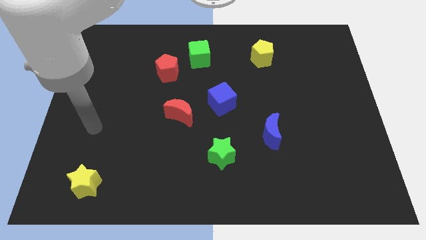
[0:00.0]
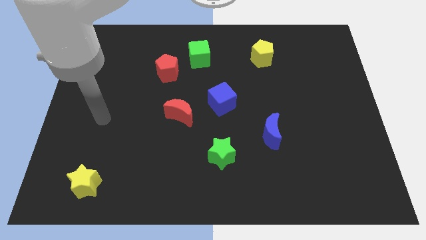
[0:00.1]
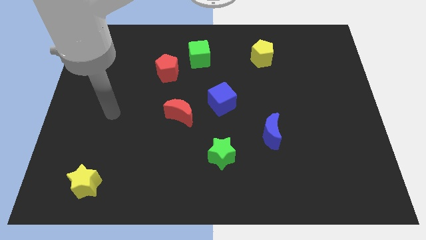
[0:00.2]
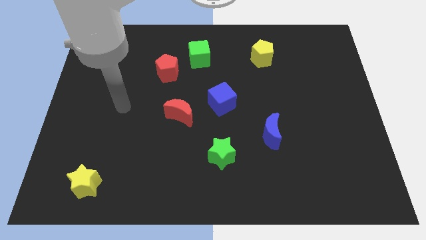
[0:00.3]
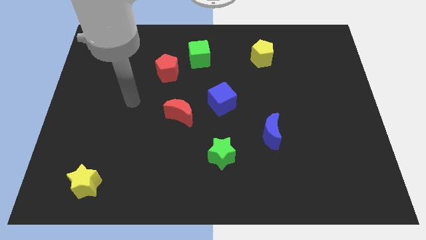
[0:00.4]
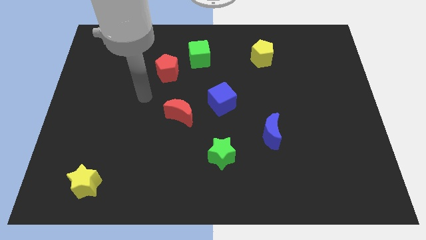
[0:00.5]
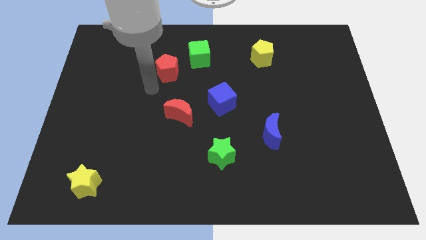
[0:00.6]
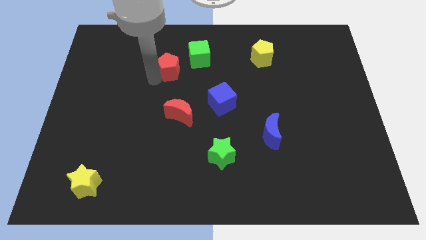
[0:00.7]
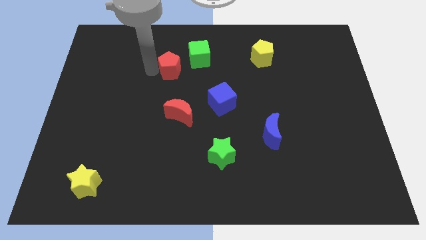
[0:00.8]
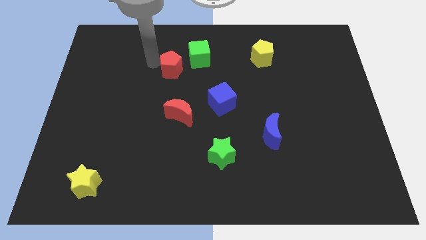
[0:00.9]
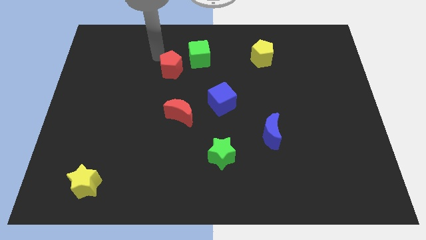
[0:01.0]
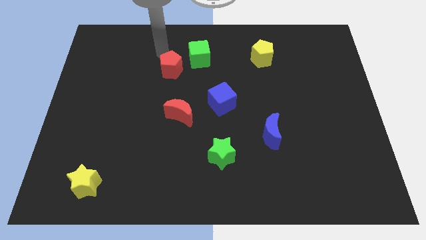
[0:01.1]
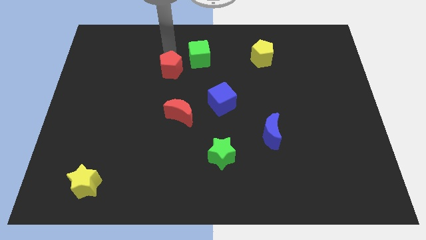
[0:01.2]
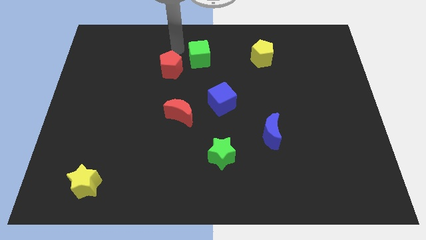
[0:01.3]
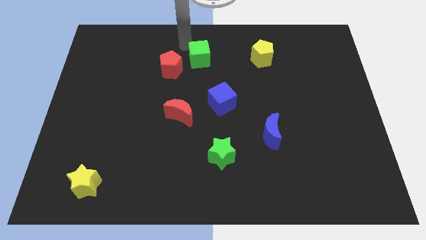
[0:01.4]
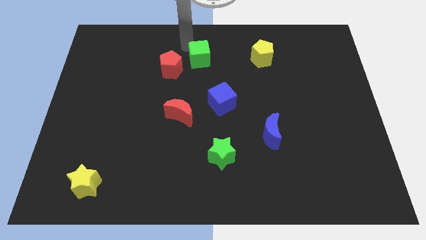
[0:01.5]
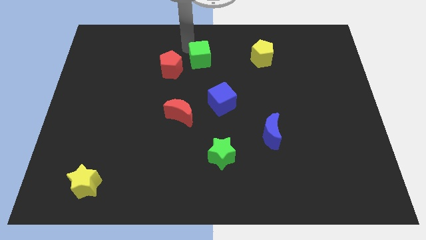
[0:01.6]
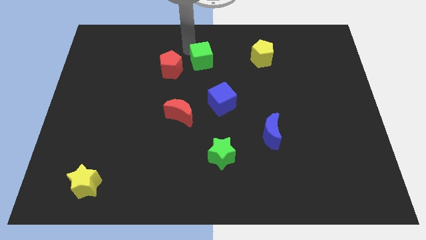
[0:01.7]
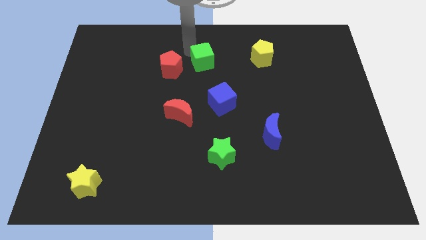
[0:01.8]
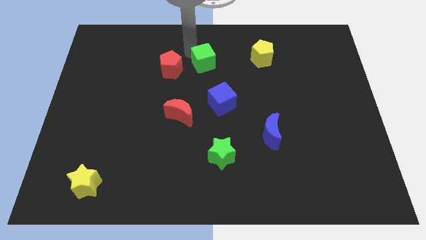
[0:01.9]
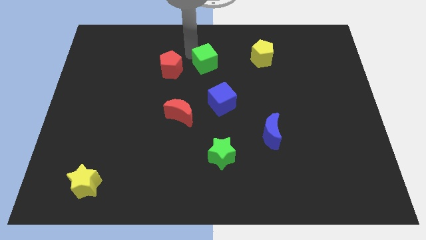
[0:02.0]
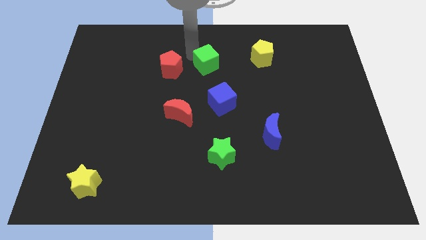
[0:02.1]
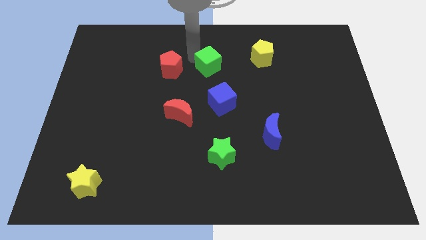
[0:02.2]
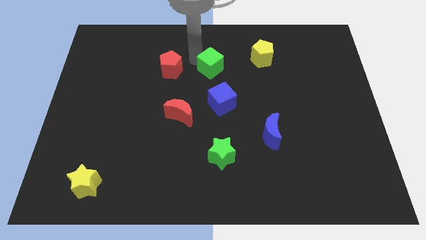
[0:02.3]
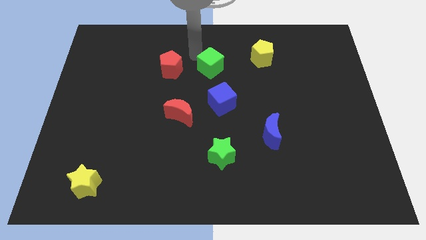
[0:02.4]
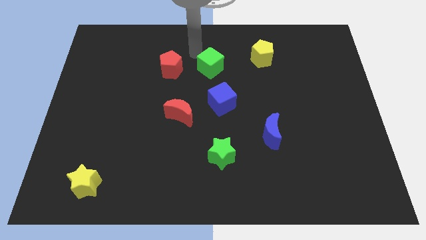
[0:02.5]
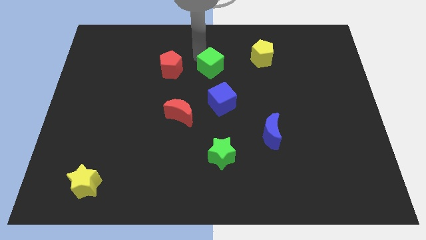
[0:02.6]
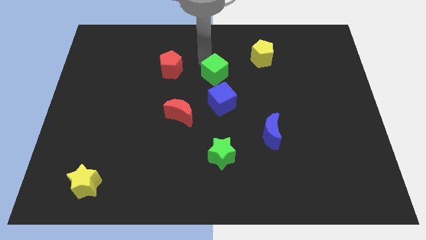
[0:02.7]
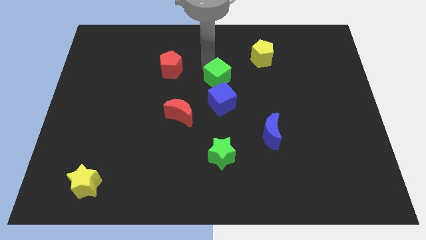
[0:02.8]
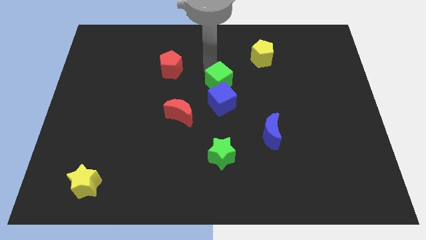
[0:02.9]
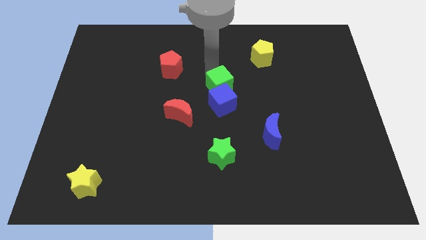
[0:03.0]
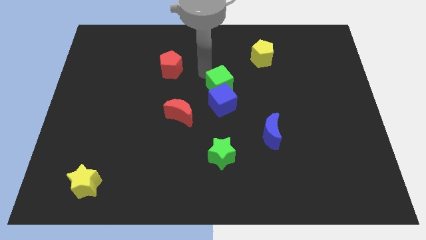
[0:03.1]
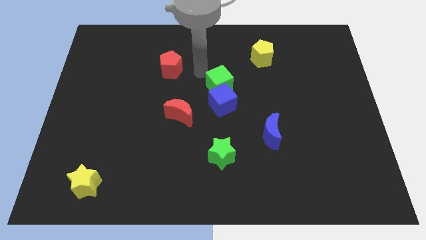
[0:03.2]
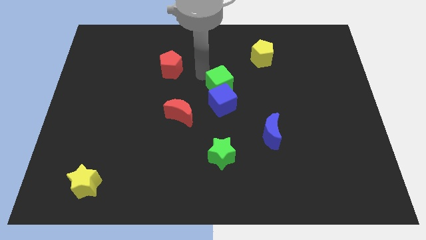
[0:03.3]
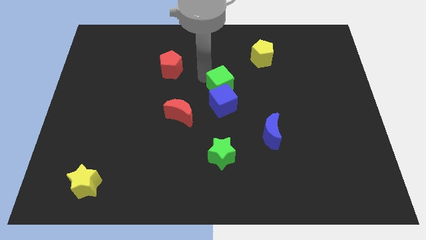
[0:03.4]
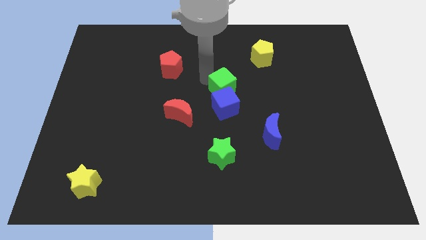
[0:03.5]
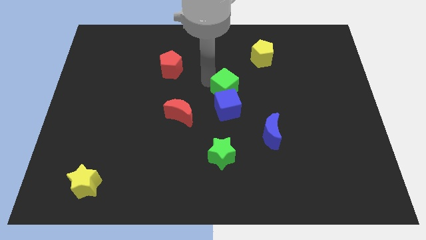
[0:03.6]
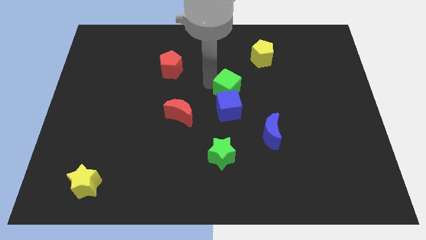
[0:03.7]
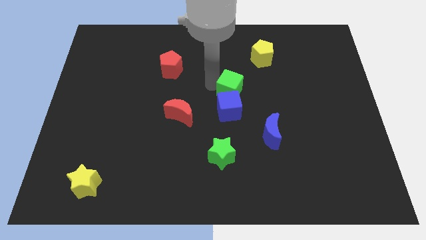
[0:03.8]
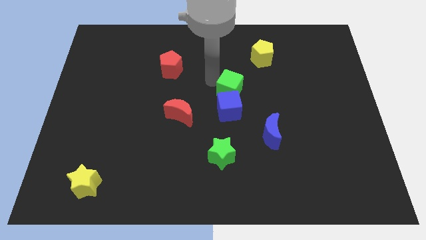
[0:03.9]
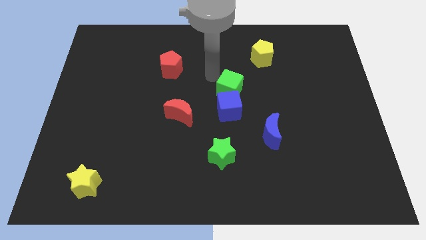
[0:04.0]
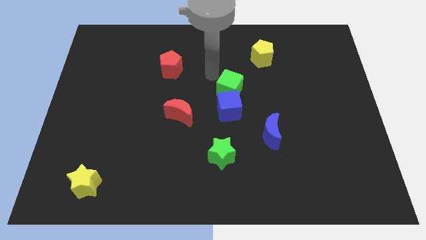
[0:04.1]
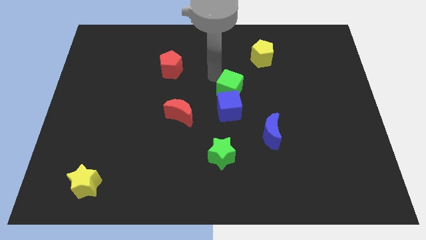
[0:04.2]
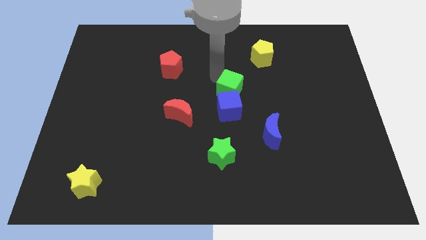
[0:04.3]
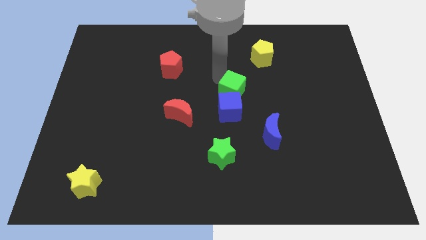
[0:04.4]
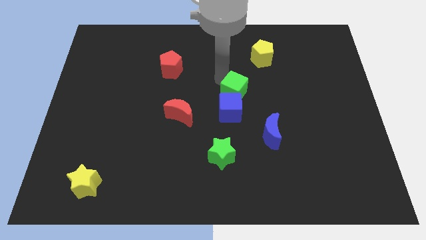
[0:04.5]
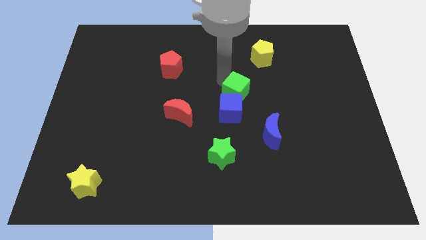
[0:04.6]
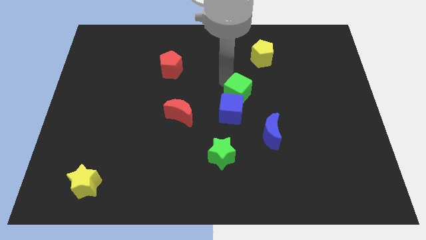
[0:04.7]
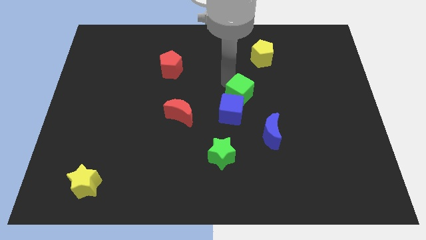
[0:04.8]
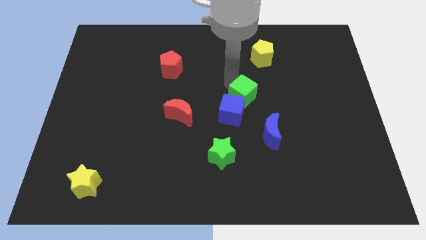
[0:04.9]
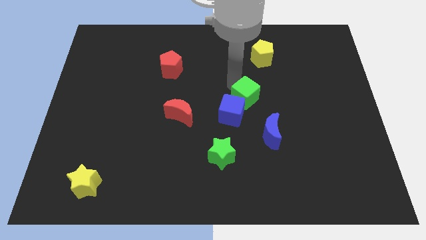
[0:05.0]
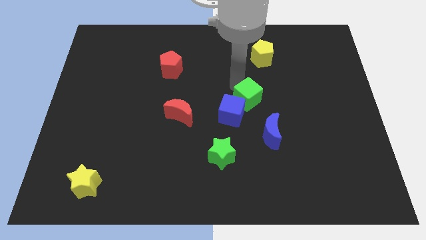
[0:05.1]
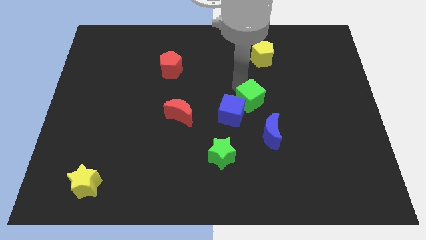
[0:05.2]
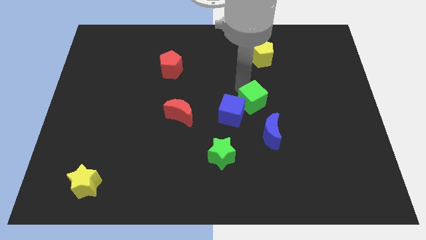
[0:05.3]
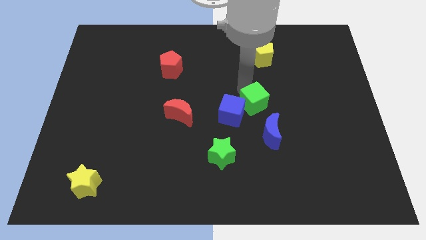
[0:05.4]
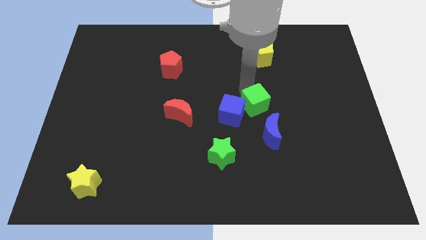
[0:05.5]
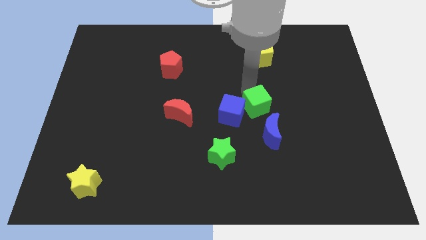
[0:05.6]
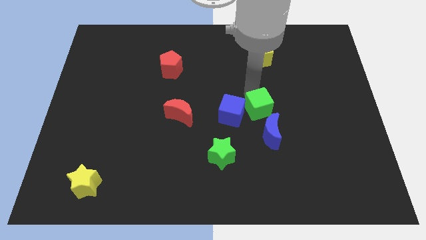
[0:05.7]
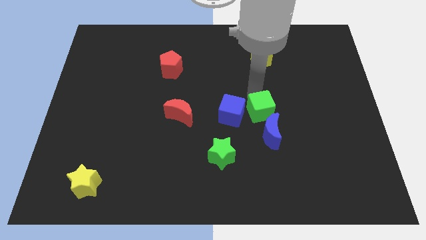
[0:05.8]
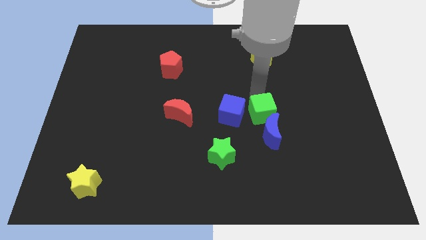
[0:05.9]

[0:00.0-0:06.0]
slide the green cube to the blue moon

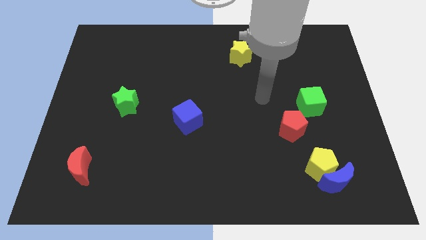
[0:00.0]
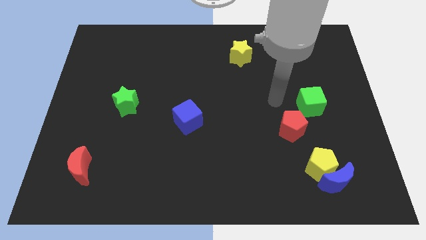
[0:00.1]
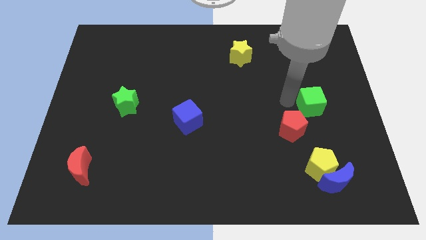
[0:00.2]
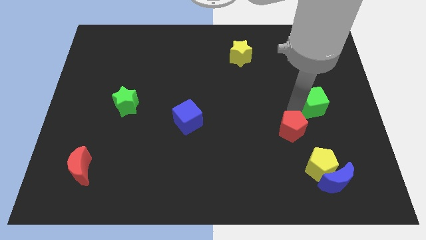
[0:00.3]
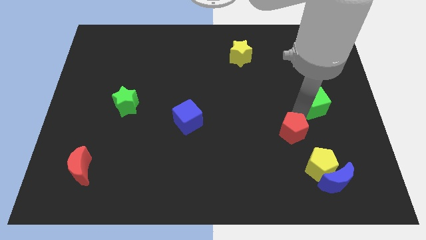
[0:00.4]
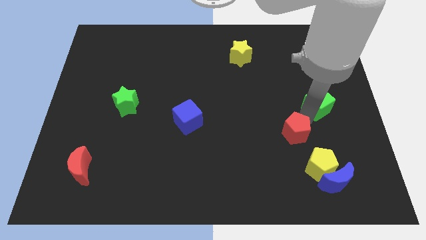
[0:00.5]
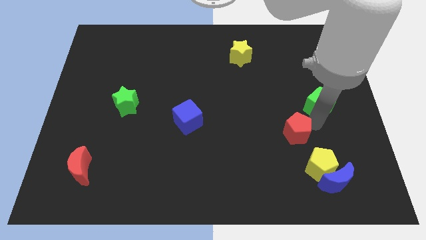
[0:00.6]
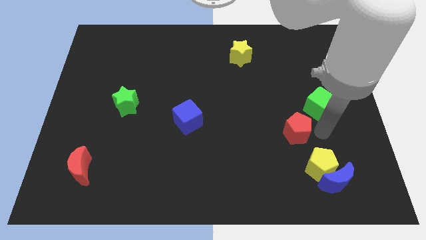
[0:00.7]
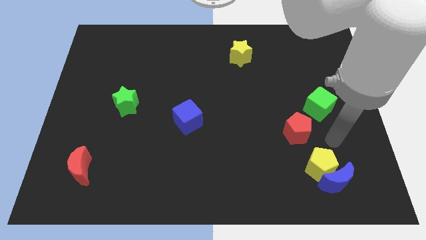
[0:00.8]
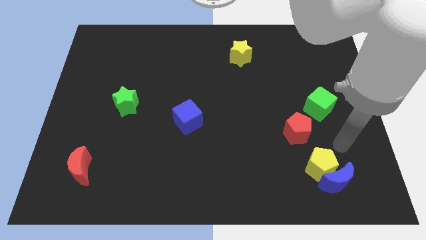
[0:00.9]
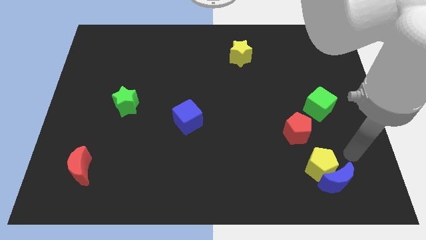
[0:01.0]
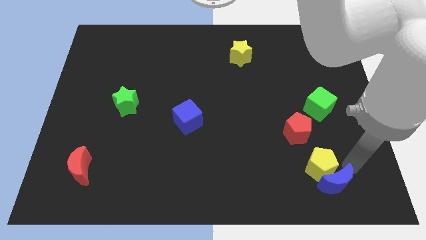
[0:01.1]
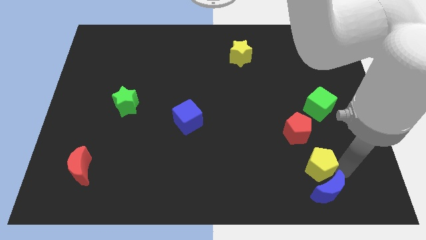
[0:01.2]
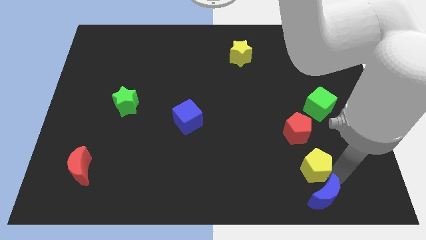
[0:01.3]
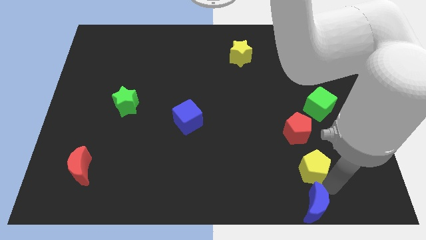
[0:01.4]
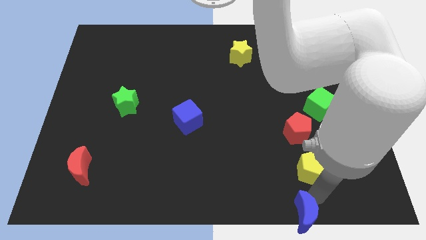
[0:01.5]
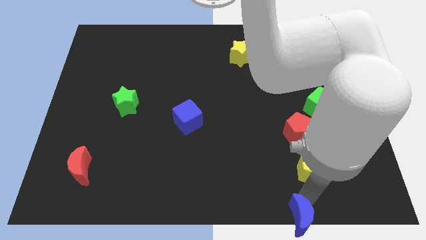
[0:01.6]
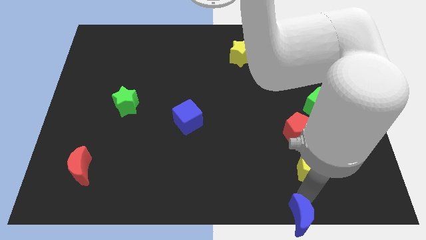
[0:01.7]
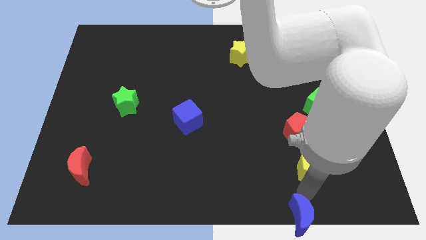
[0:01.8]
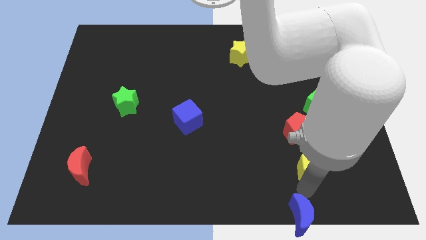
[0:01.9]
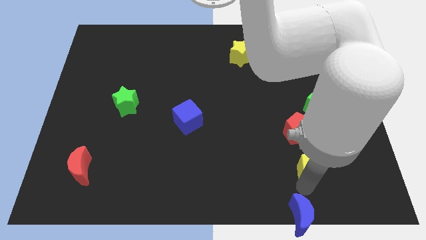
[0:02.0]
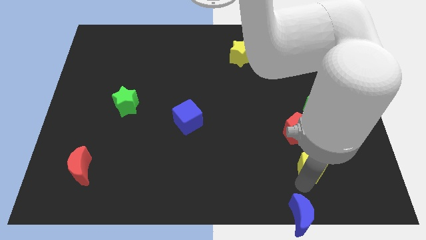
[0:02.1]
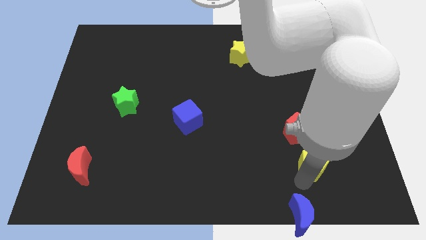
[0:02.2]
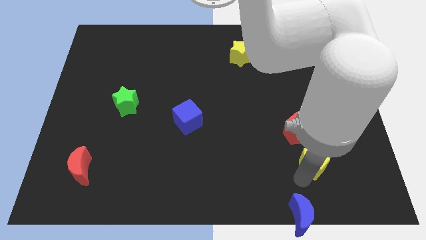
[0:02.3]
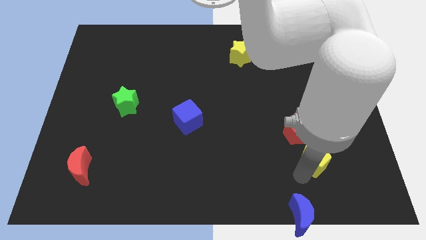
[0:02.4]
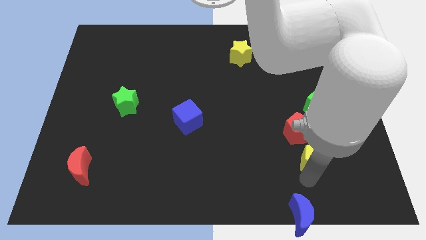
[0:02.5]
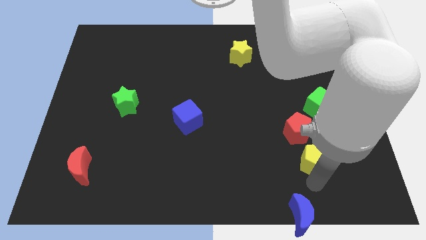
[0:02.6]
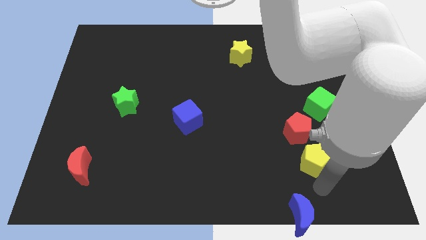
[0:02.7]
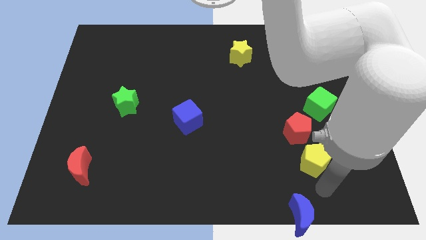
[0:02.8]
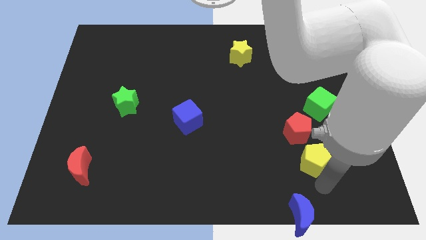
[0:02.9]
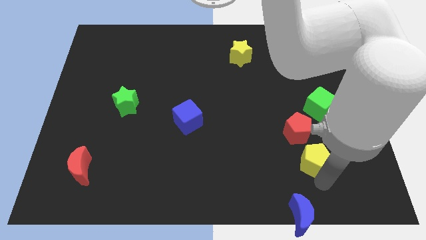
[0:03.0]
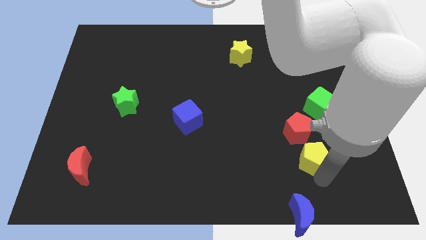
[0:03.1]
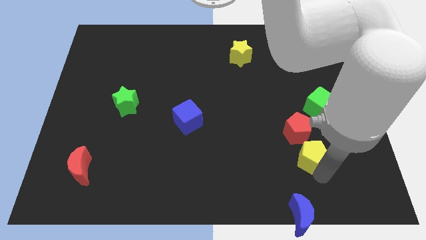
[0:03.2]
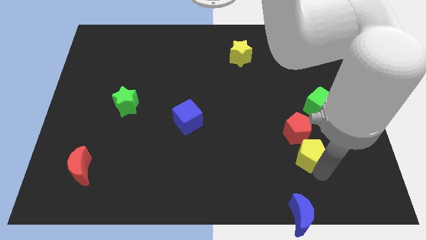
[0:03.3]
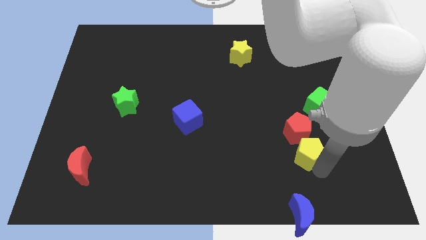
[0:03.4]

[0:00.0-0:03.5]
move the yellow pentagon next to the red pentagon
